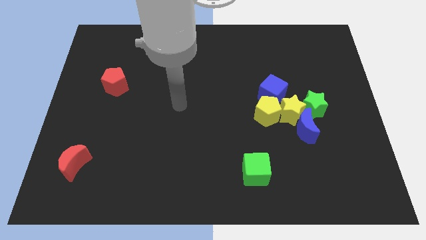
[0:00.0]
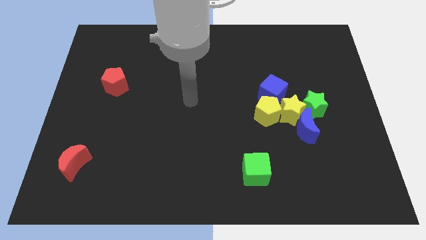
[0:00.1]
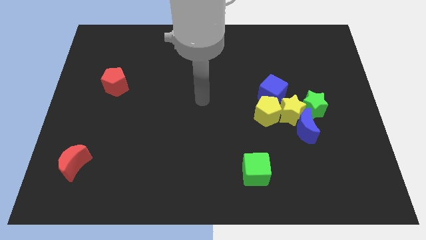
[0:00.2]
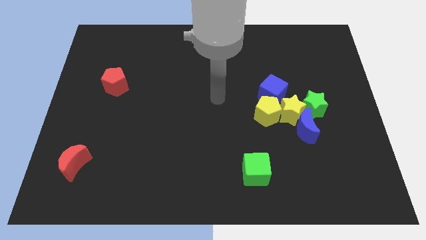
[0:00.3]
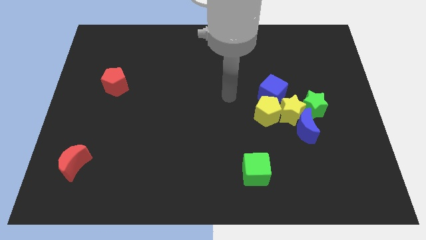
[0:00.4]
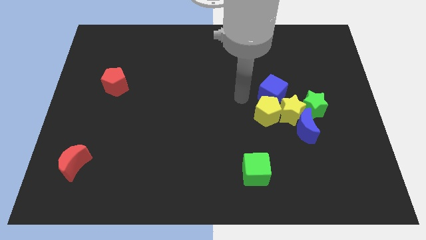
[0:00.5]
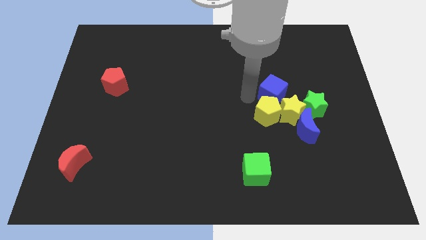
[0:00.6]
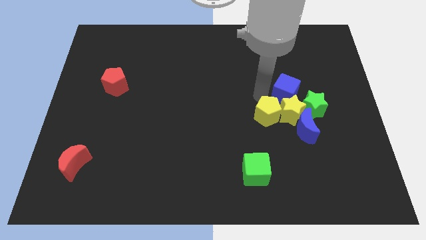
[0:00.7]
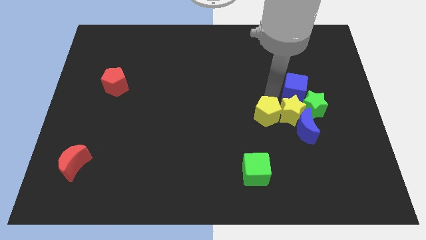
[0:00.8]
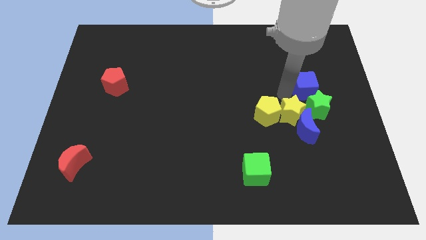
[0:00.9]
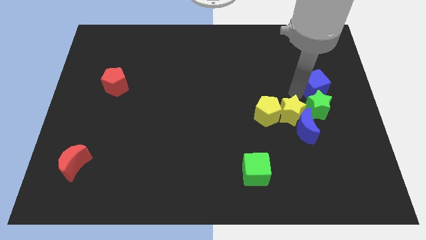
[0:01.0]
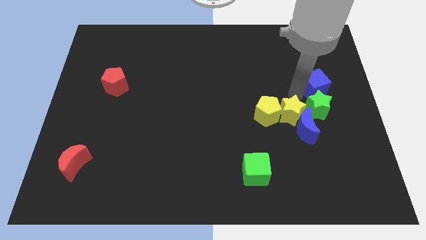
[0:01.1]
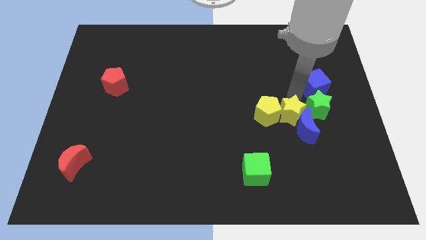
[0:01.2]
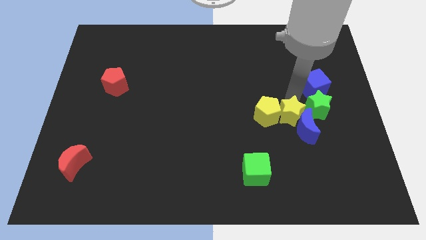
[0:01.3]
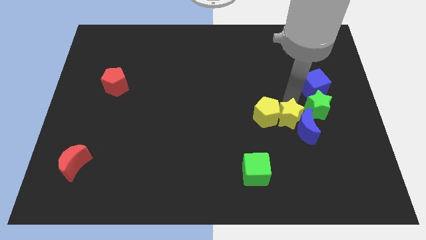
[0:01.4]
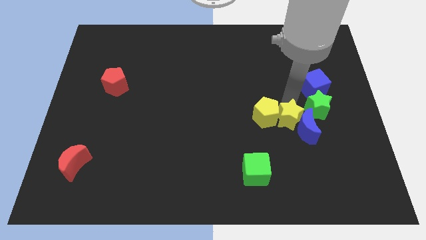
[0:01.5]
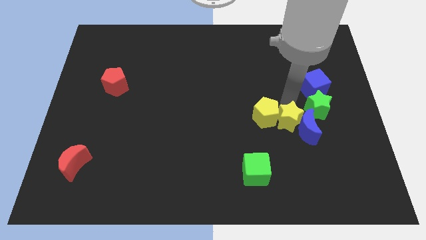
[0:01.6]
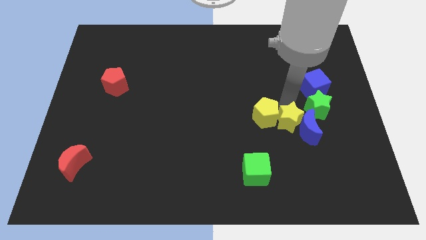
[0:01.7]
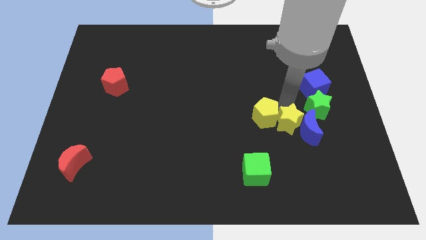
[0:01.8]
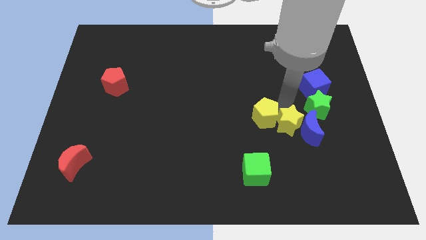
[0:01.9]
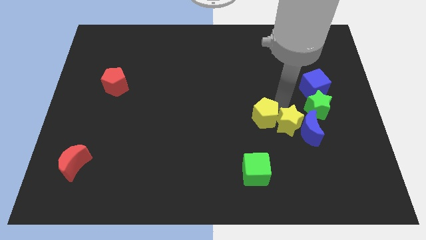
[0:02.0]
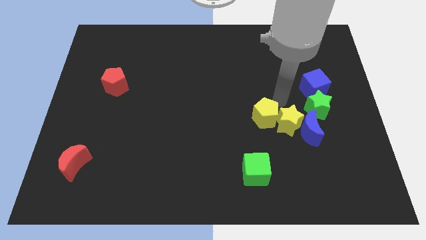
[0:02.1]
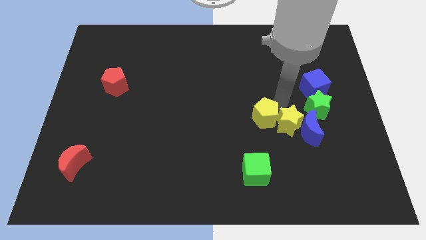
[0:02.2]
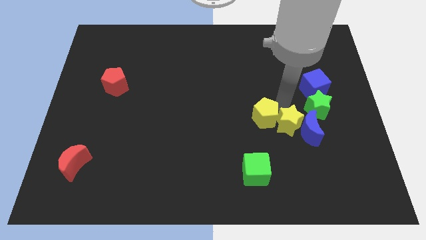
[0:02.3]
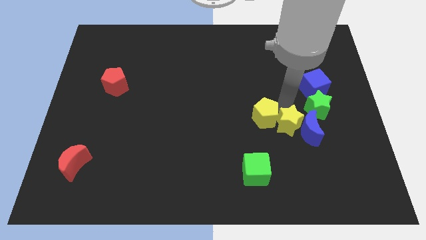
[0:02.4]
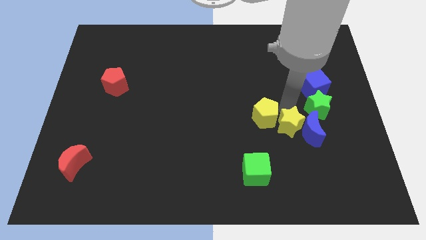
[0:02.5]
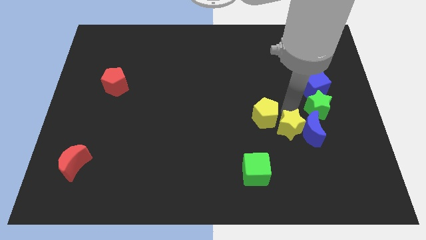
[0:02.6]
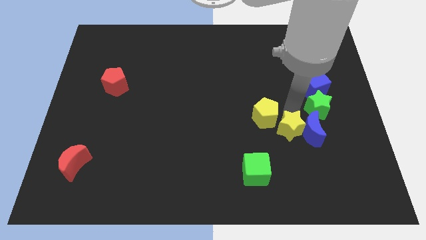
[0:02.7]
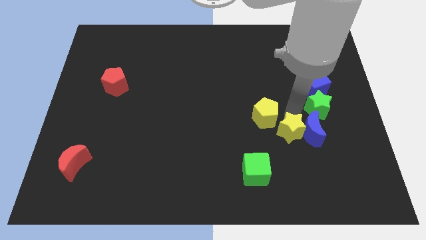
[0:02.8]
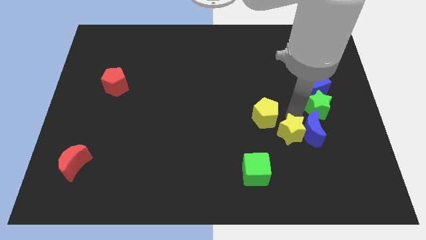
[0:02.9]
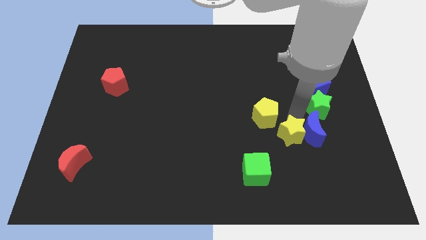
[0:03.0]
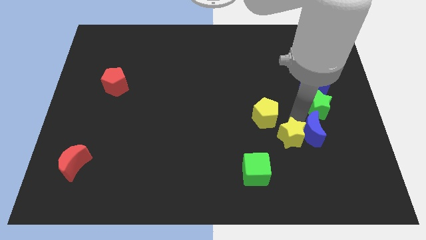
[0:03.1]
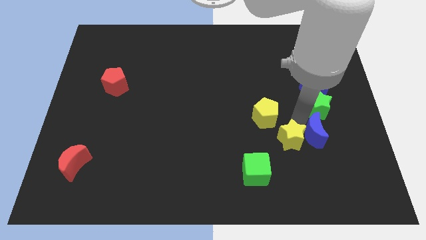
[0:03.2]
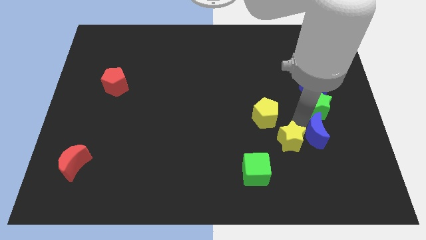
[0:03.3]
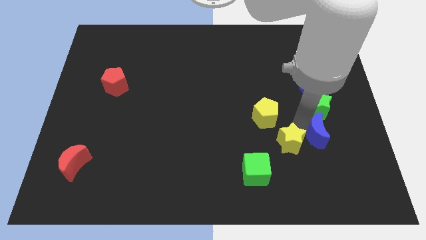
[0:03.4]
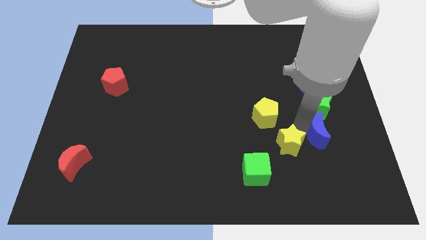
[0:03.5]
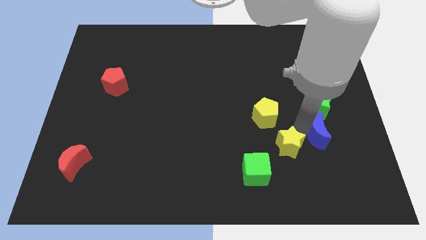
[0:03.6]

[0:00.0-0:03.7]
pull the yellow star apart from the group

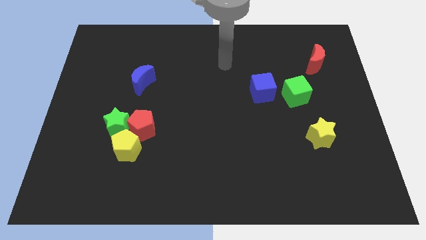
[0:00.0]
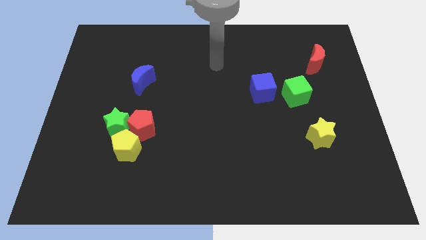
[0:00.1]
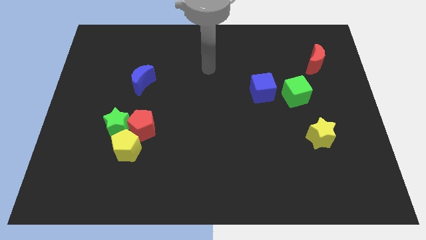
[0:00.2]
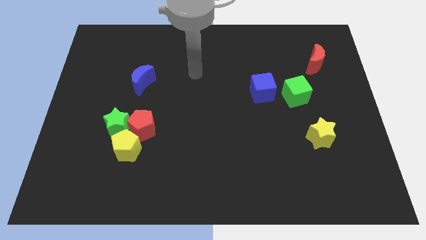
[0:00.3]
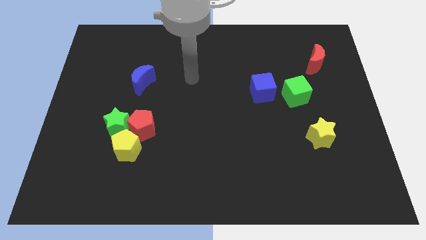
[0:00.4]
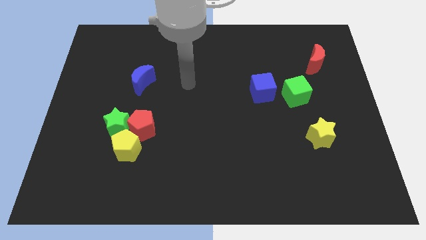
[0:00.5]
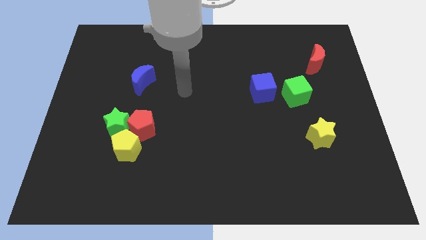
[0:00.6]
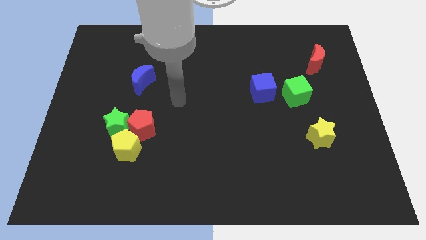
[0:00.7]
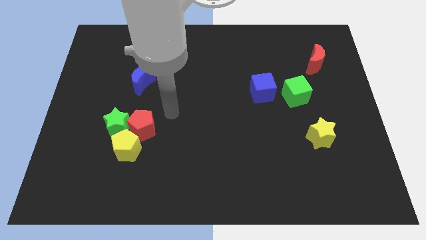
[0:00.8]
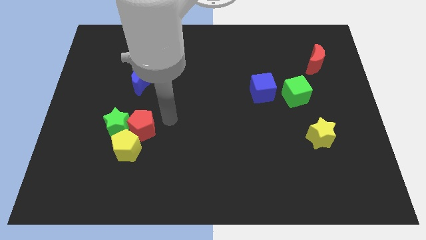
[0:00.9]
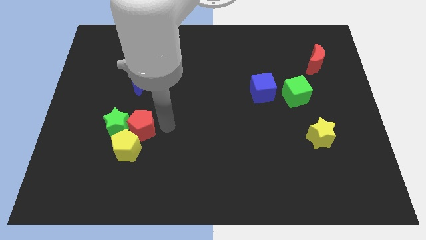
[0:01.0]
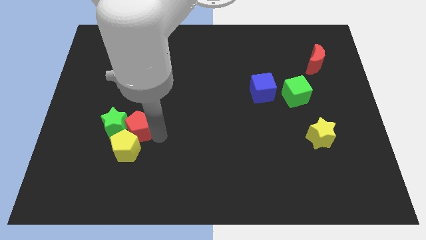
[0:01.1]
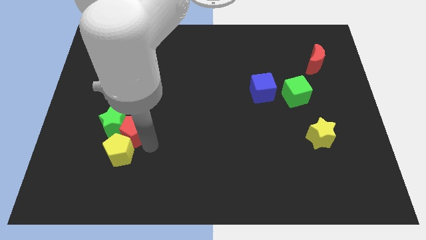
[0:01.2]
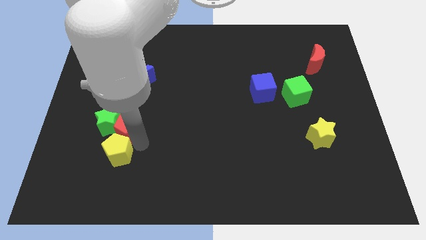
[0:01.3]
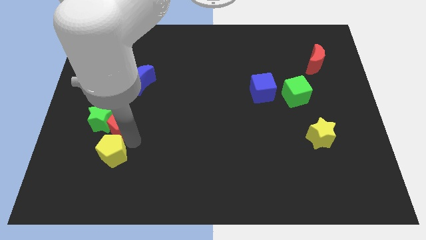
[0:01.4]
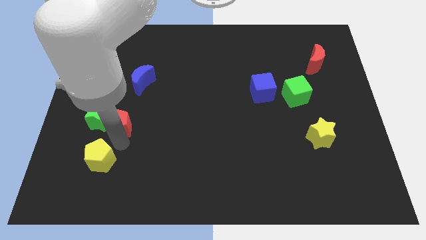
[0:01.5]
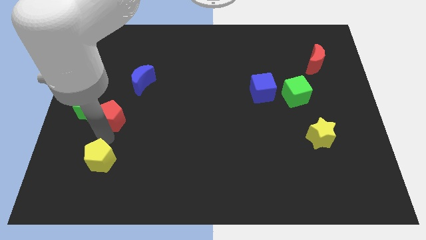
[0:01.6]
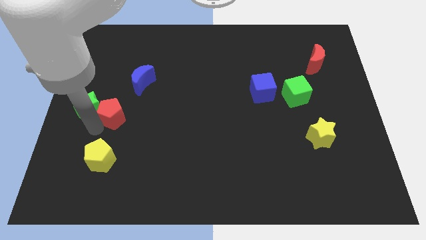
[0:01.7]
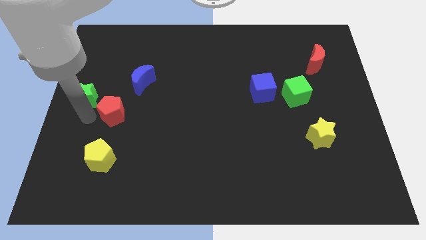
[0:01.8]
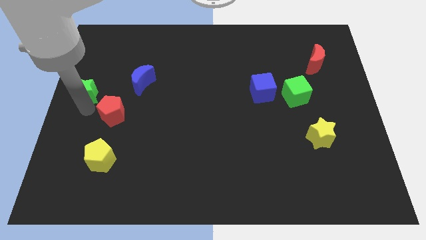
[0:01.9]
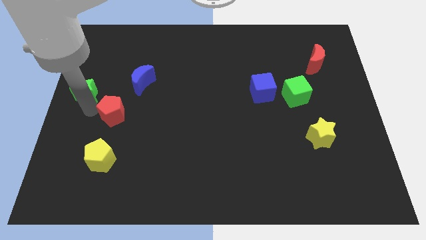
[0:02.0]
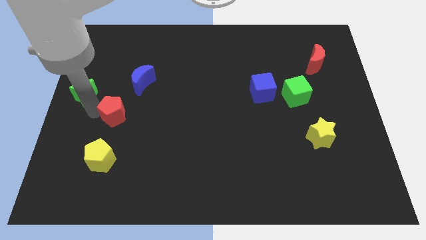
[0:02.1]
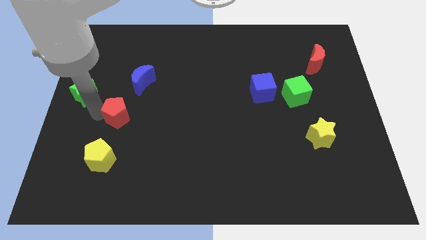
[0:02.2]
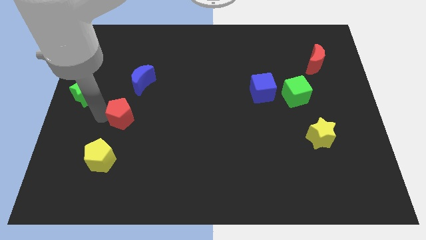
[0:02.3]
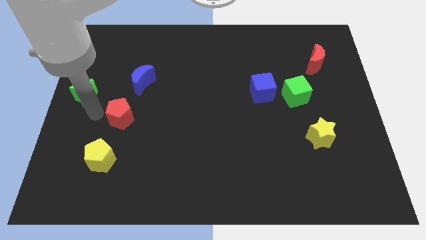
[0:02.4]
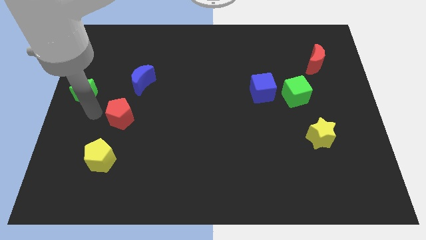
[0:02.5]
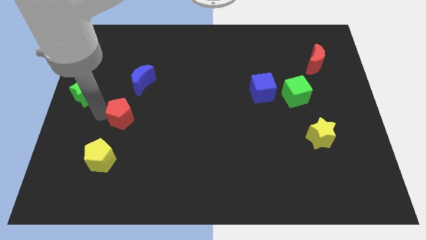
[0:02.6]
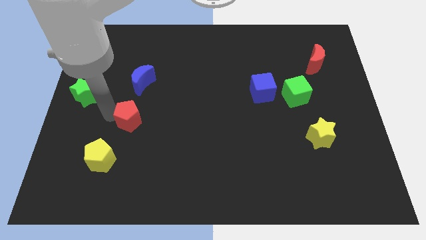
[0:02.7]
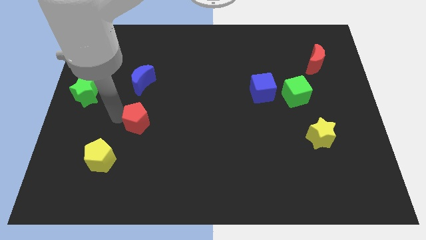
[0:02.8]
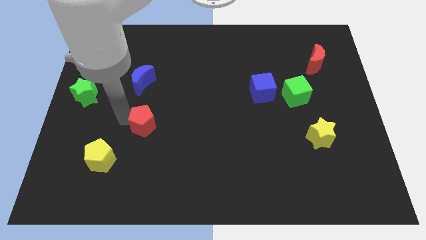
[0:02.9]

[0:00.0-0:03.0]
separate the red pentagon from the green star and yellow pentagon

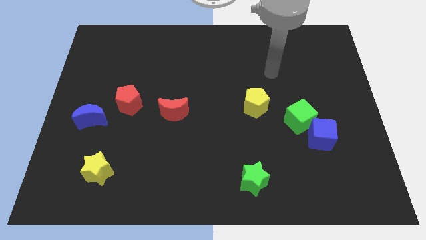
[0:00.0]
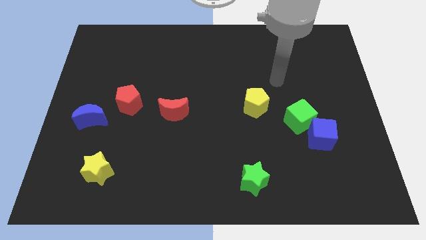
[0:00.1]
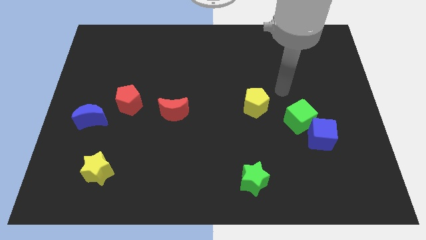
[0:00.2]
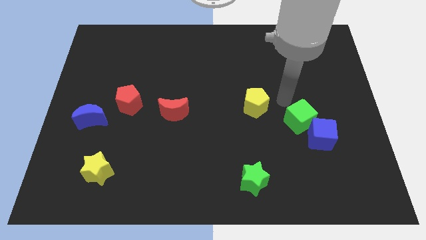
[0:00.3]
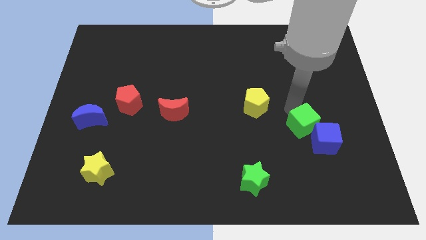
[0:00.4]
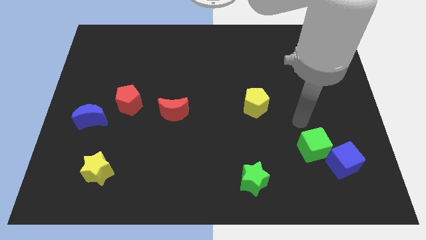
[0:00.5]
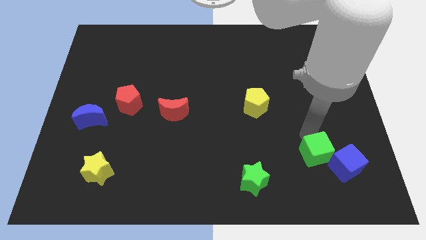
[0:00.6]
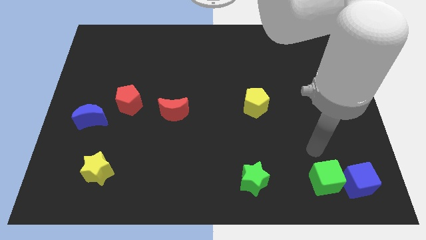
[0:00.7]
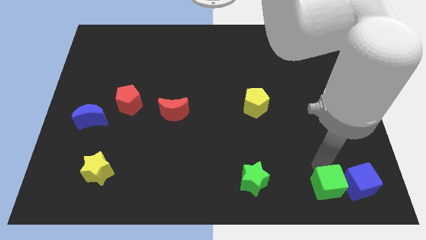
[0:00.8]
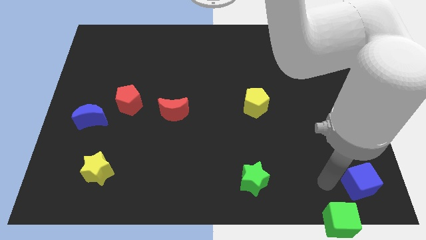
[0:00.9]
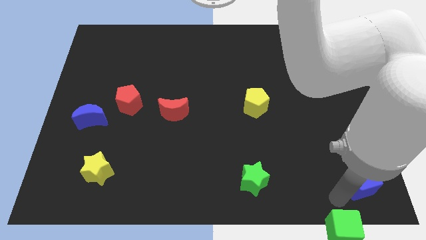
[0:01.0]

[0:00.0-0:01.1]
pull the blue cube apart from the green cube

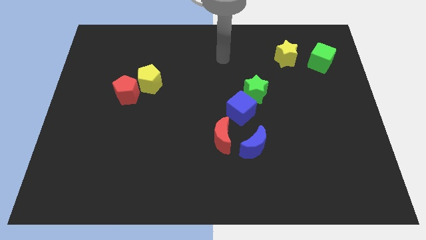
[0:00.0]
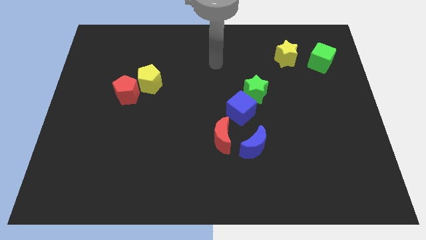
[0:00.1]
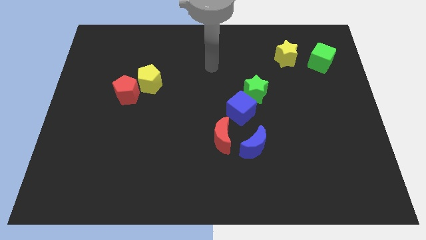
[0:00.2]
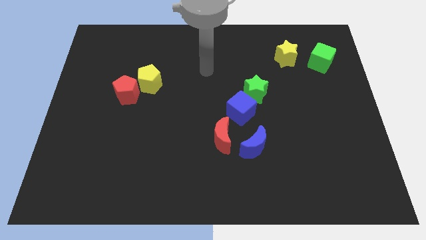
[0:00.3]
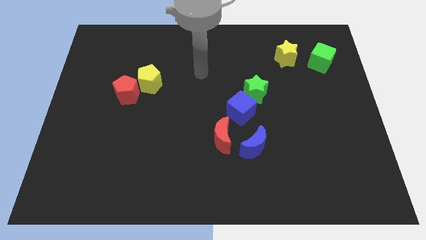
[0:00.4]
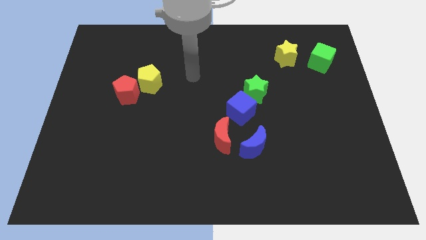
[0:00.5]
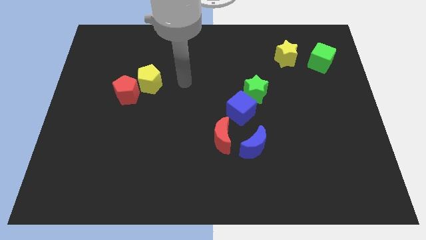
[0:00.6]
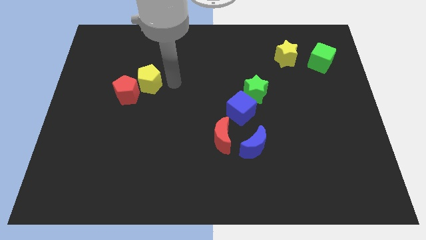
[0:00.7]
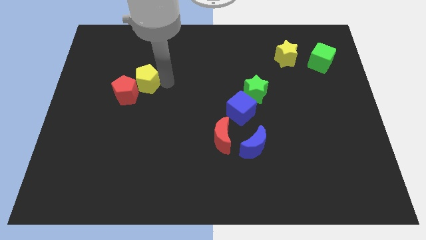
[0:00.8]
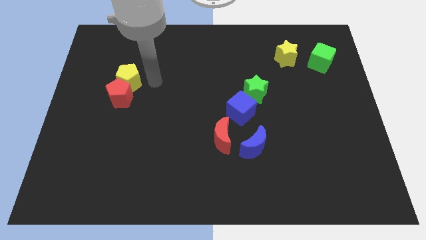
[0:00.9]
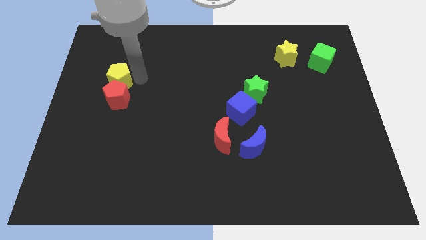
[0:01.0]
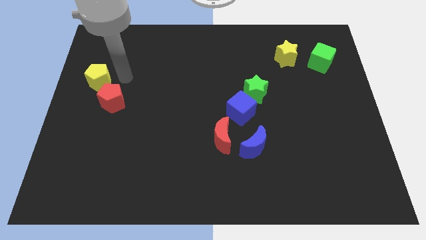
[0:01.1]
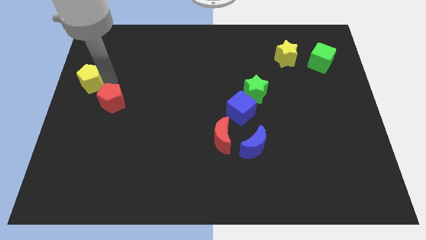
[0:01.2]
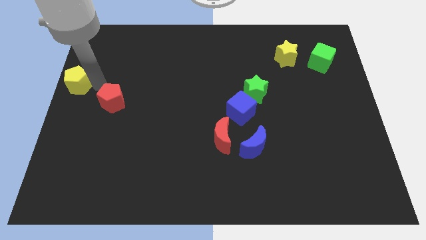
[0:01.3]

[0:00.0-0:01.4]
separate the red pentagon from the yellow pentagon
